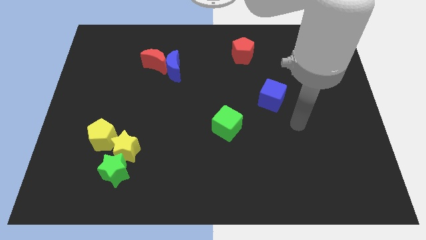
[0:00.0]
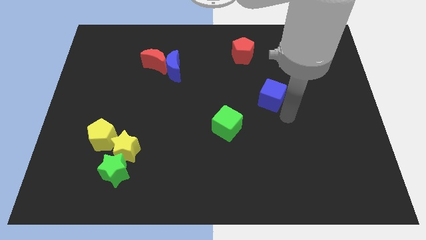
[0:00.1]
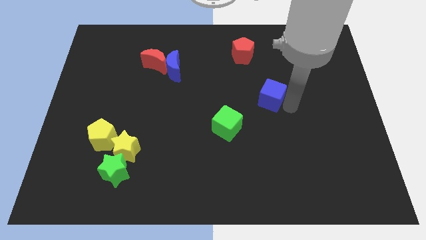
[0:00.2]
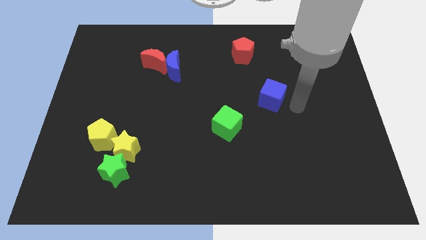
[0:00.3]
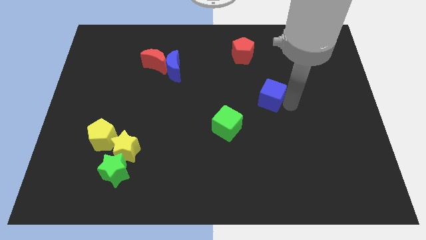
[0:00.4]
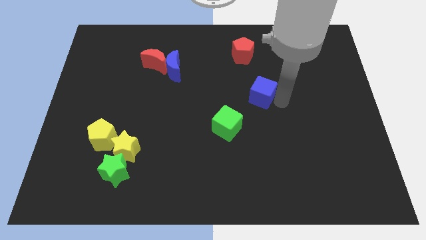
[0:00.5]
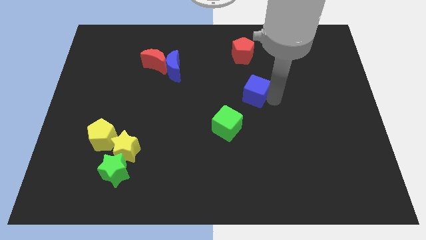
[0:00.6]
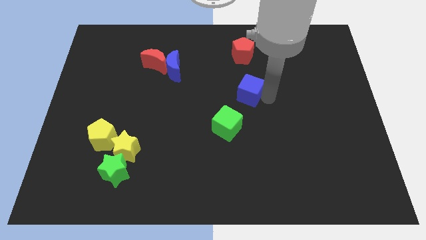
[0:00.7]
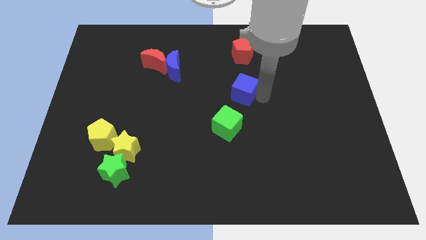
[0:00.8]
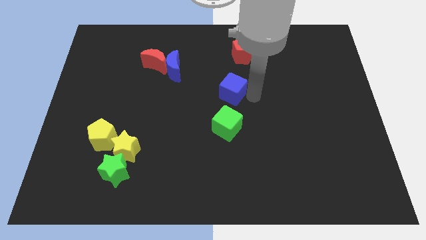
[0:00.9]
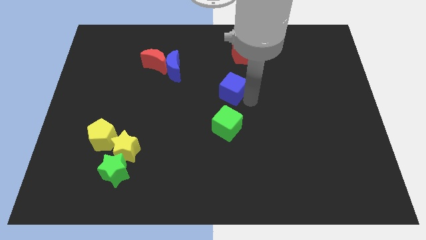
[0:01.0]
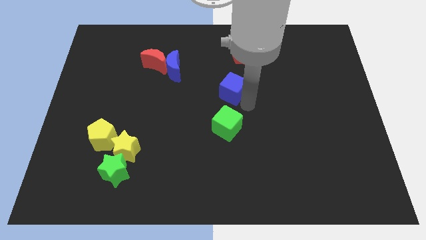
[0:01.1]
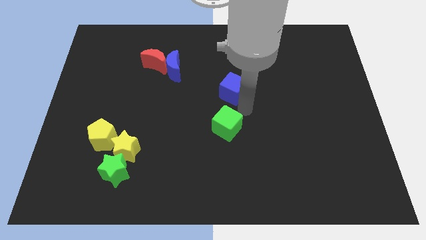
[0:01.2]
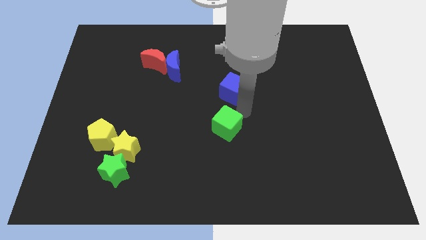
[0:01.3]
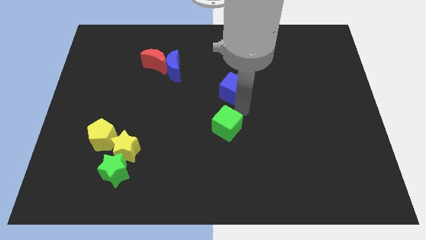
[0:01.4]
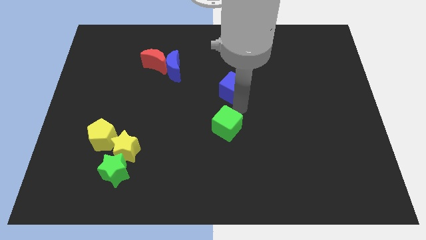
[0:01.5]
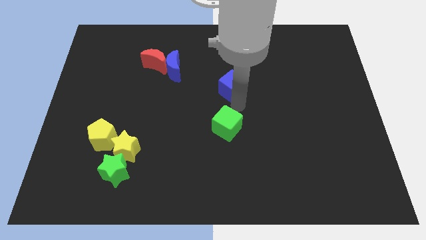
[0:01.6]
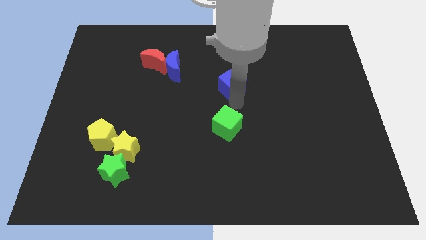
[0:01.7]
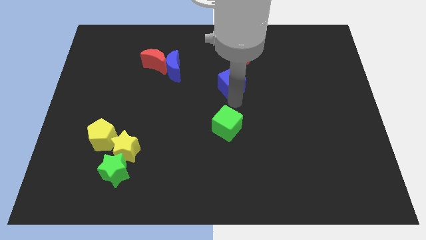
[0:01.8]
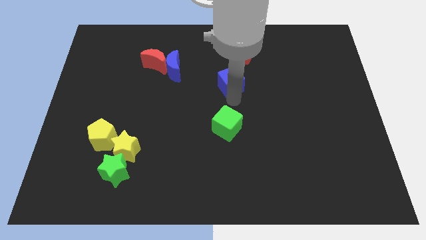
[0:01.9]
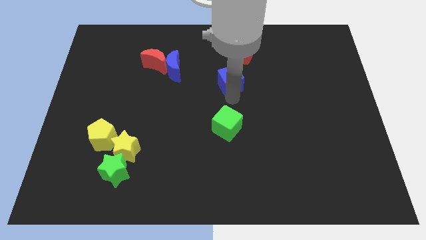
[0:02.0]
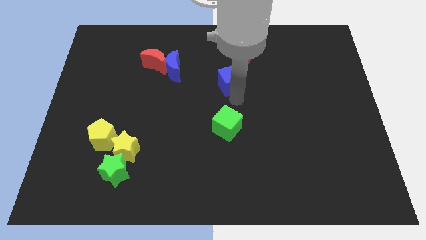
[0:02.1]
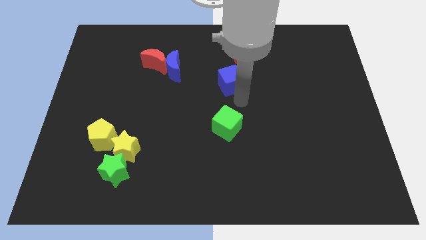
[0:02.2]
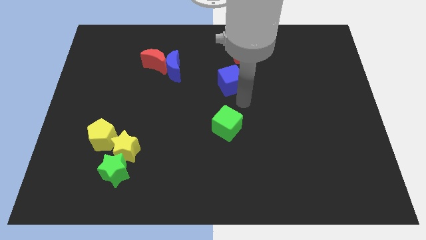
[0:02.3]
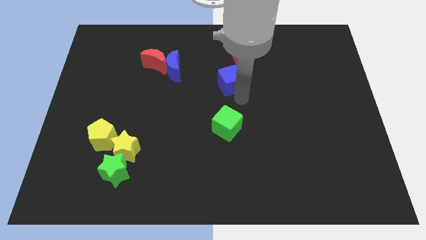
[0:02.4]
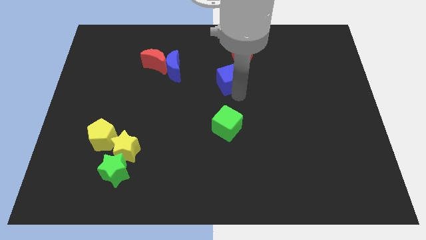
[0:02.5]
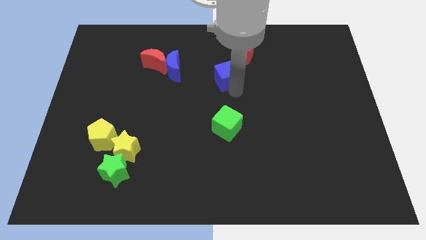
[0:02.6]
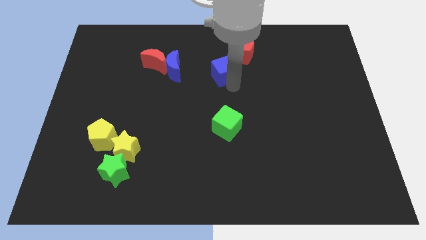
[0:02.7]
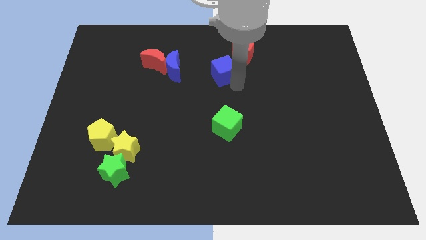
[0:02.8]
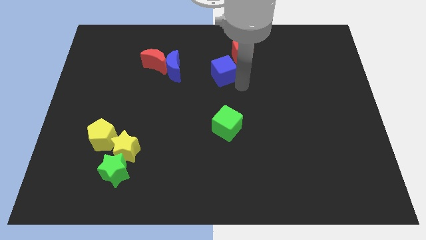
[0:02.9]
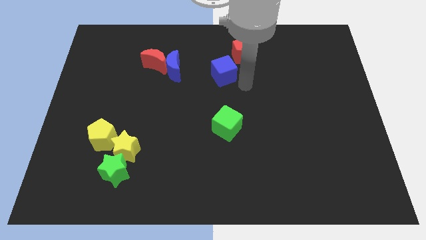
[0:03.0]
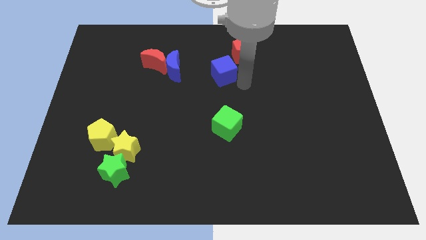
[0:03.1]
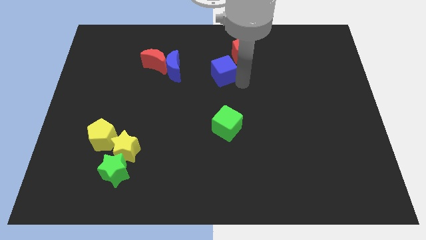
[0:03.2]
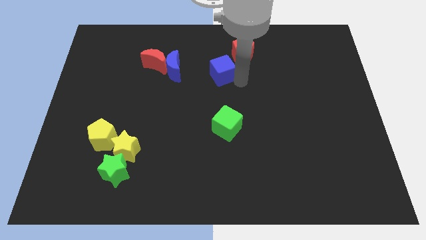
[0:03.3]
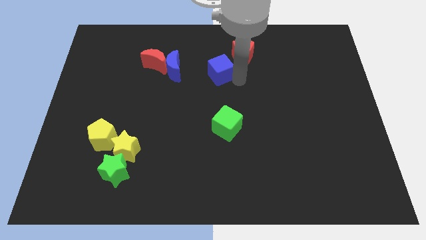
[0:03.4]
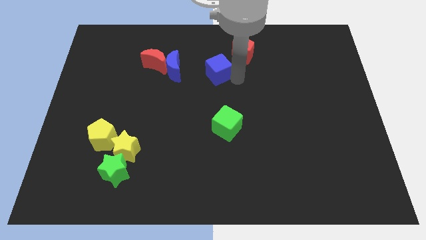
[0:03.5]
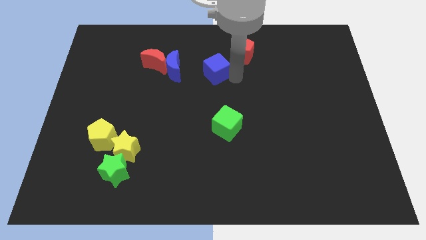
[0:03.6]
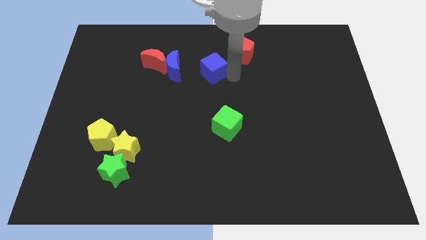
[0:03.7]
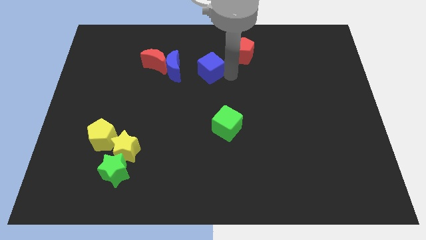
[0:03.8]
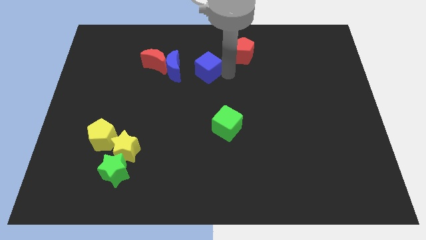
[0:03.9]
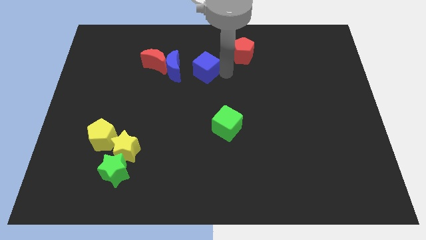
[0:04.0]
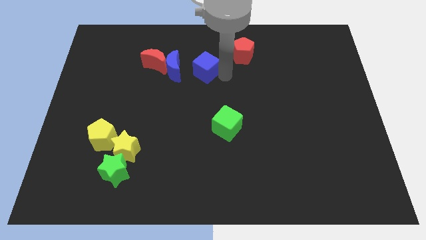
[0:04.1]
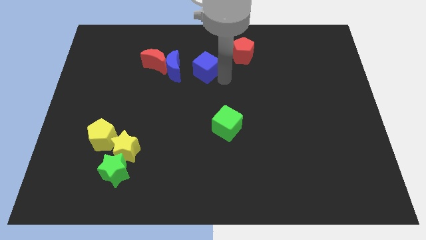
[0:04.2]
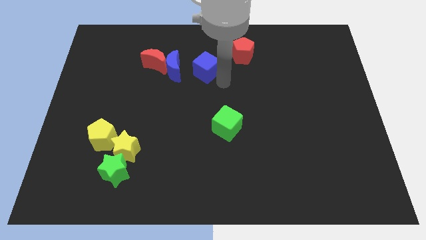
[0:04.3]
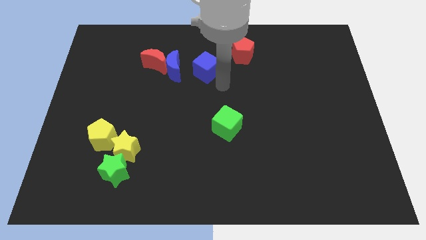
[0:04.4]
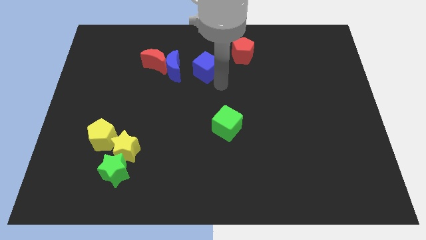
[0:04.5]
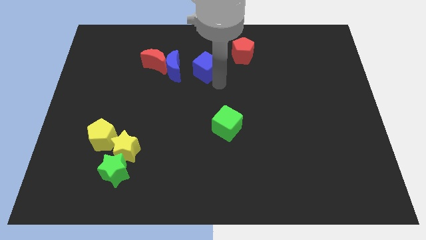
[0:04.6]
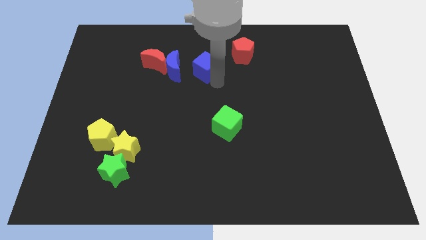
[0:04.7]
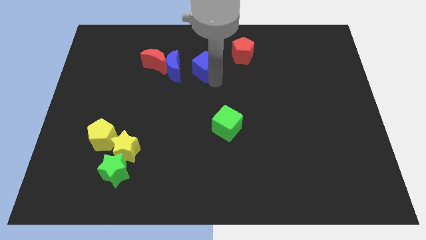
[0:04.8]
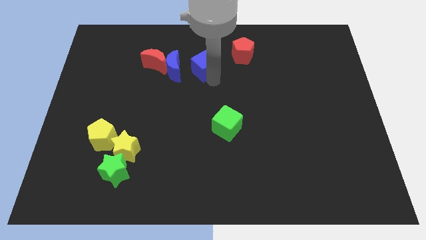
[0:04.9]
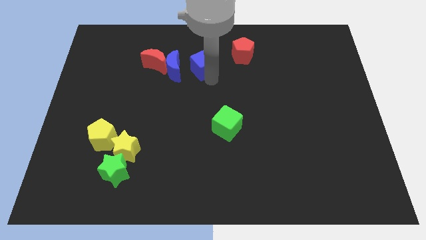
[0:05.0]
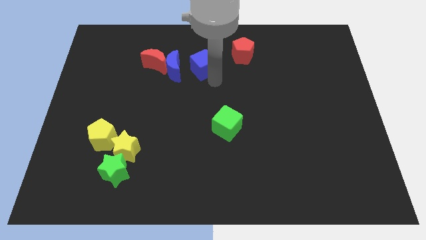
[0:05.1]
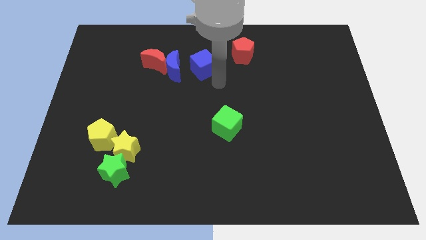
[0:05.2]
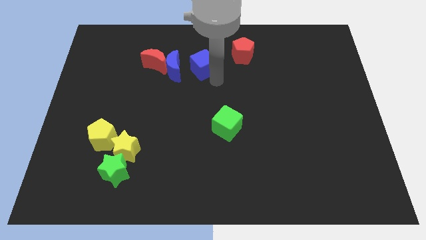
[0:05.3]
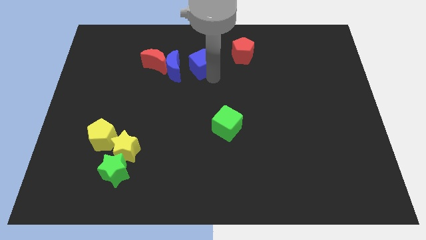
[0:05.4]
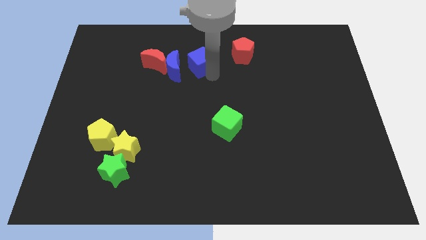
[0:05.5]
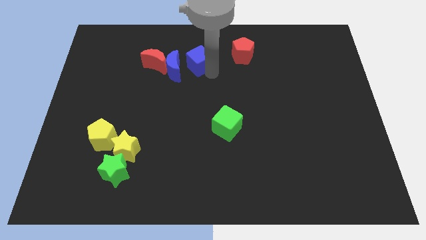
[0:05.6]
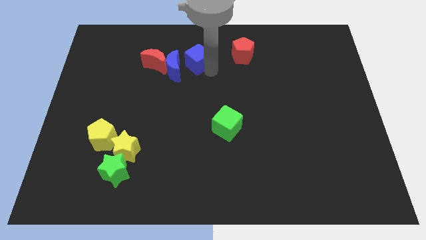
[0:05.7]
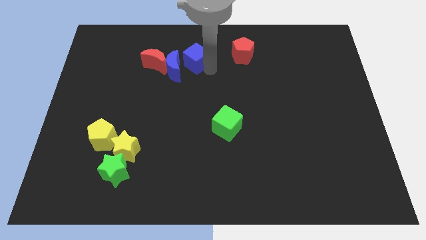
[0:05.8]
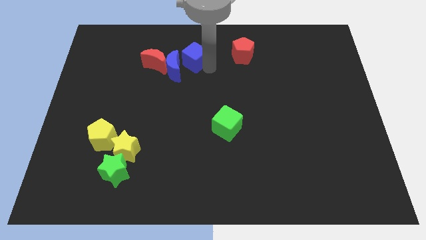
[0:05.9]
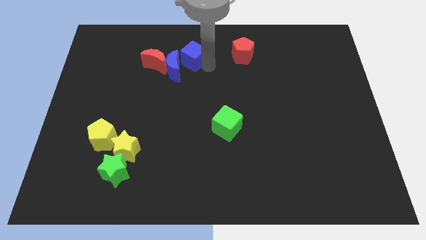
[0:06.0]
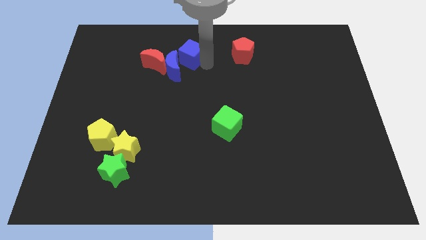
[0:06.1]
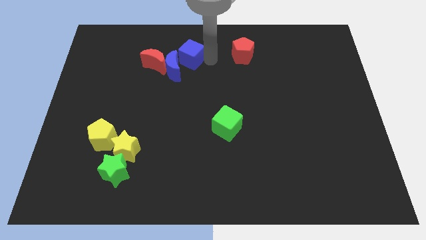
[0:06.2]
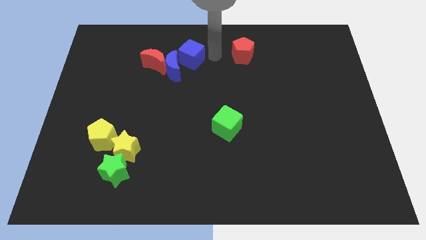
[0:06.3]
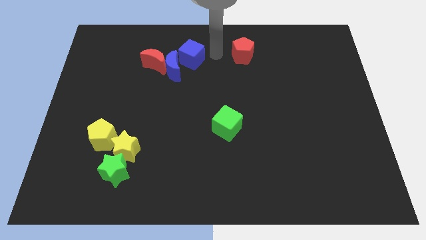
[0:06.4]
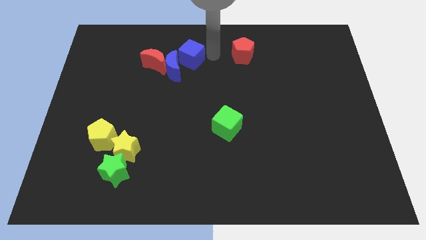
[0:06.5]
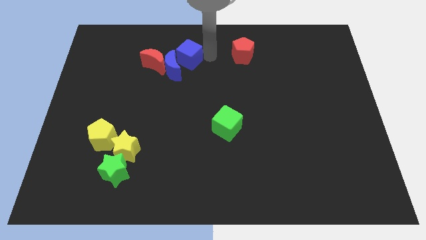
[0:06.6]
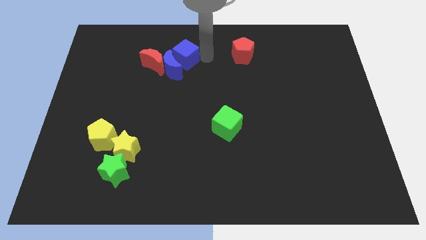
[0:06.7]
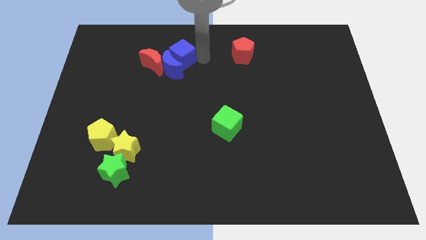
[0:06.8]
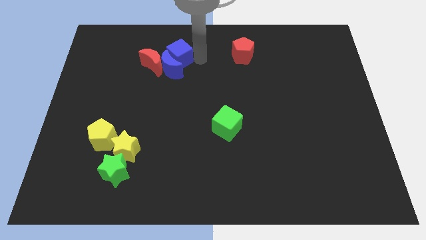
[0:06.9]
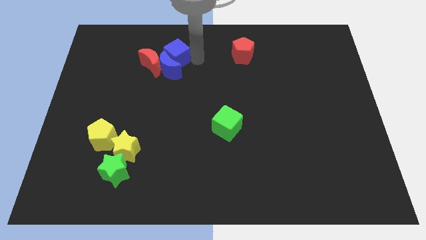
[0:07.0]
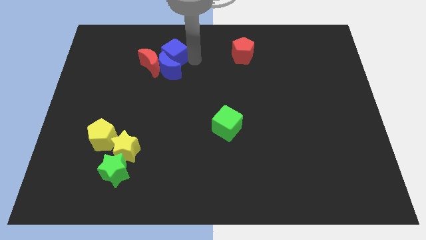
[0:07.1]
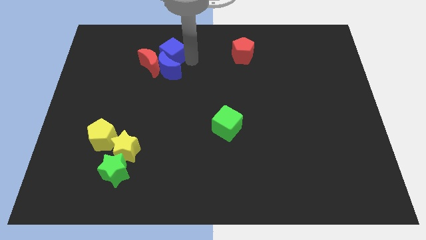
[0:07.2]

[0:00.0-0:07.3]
push the blue cube towards the red moon
